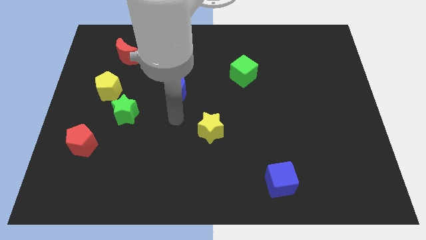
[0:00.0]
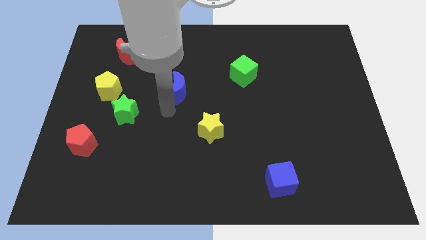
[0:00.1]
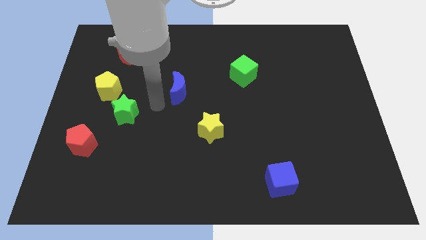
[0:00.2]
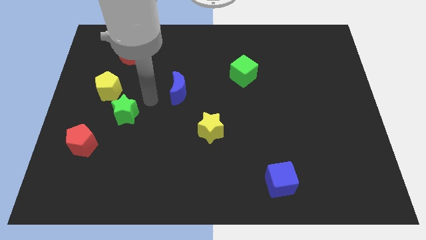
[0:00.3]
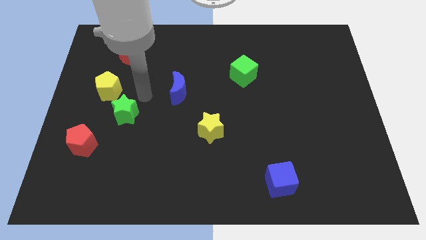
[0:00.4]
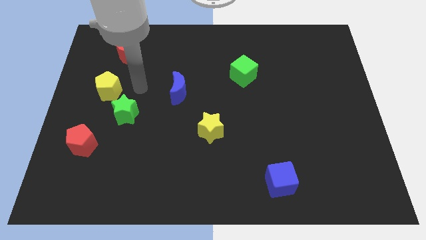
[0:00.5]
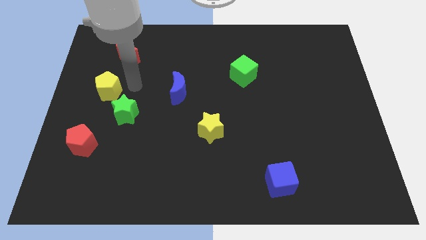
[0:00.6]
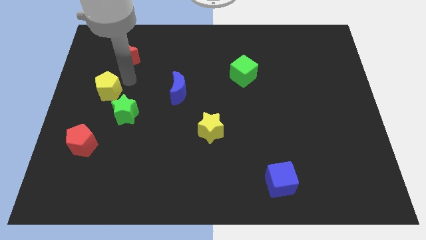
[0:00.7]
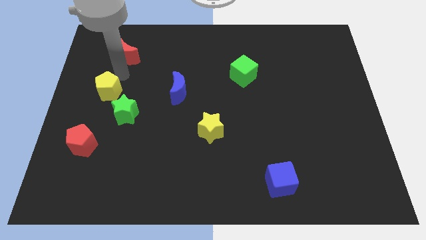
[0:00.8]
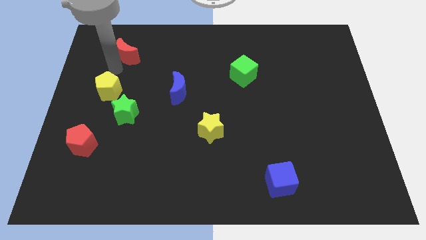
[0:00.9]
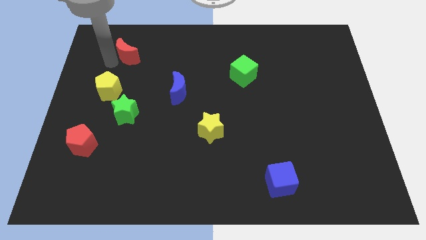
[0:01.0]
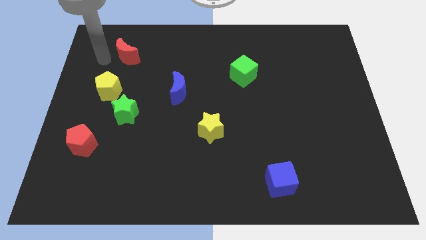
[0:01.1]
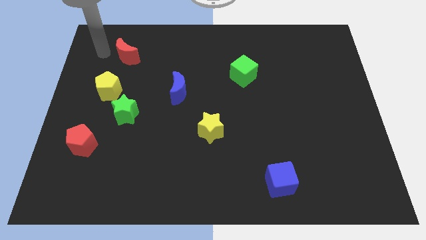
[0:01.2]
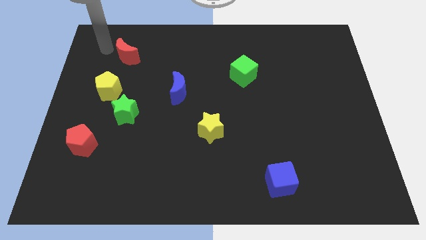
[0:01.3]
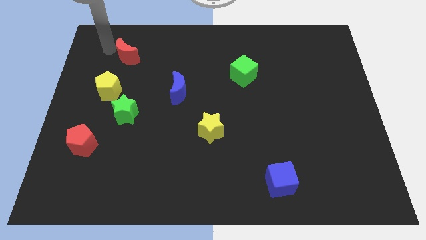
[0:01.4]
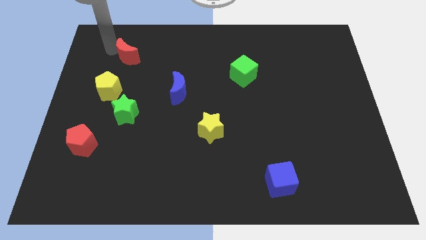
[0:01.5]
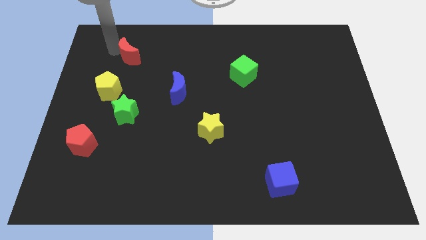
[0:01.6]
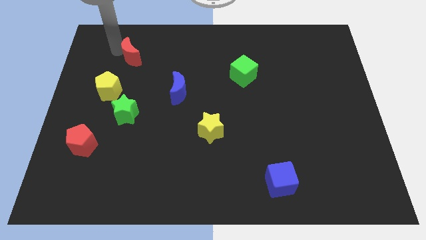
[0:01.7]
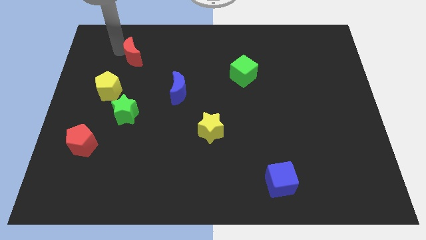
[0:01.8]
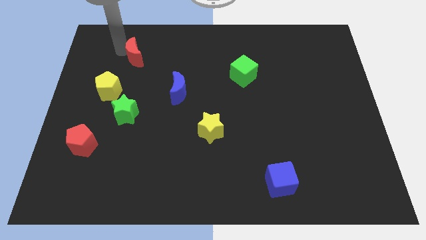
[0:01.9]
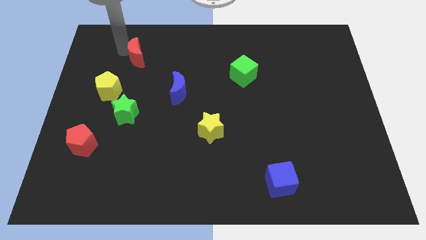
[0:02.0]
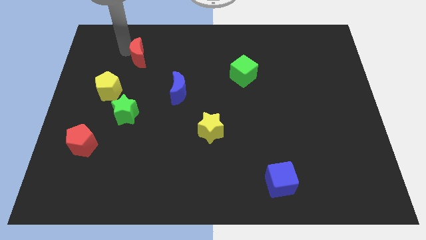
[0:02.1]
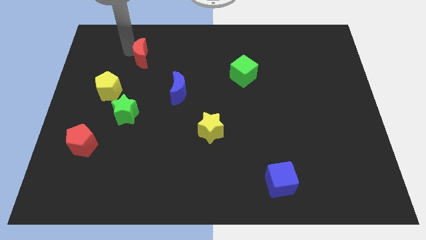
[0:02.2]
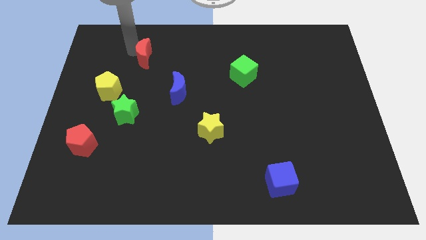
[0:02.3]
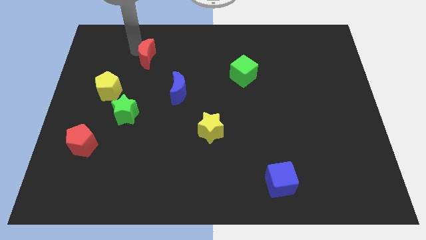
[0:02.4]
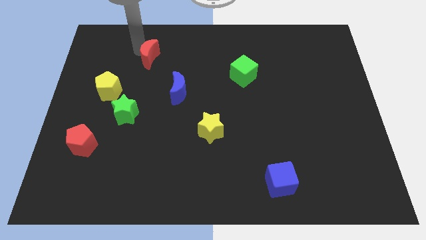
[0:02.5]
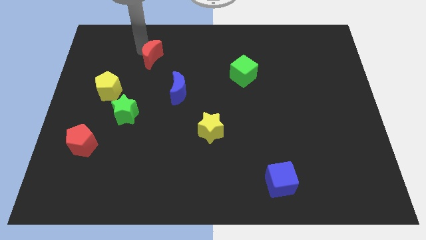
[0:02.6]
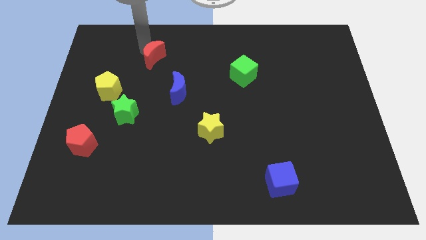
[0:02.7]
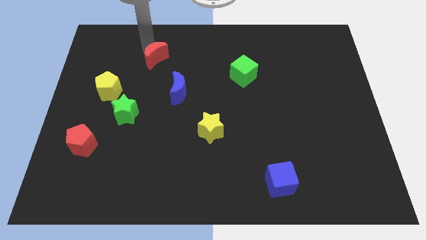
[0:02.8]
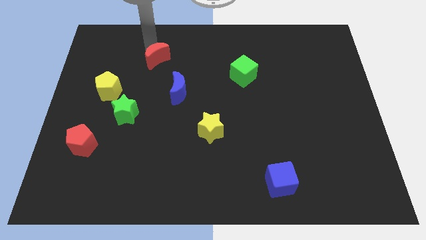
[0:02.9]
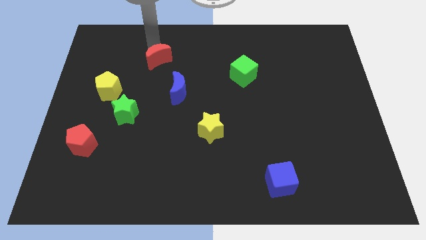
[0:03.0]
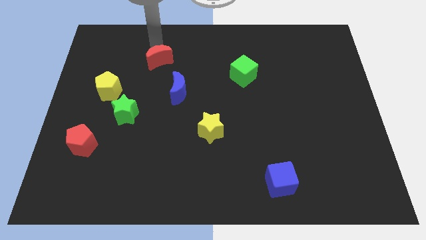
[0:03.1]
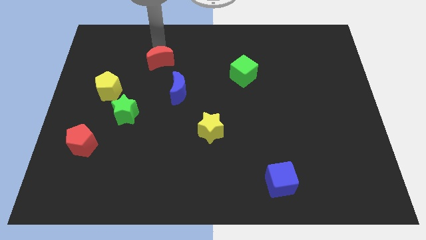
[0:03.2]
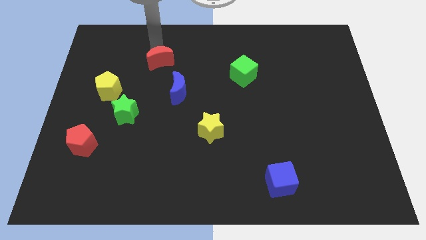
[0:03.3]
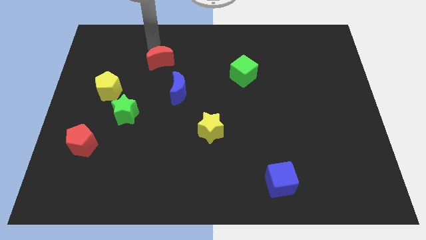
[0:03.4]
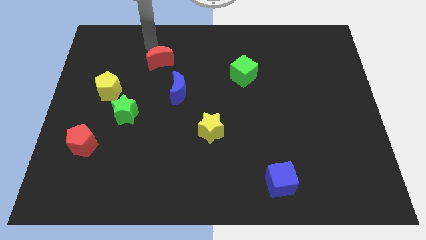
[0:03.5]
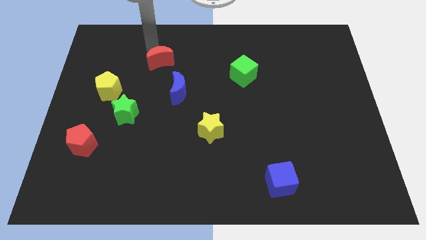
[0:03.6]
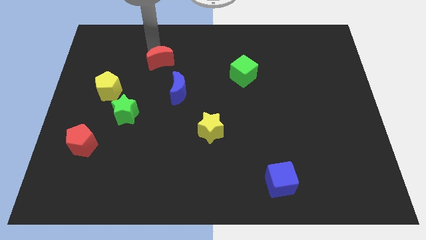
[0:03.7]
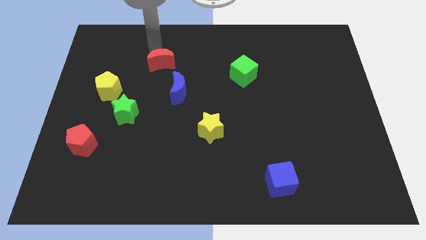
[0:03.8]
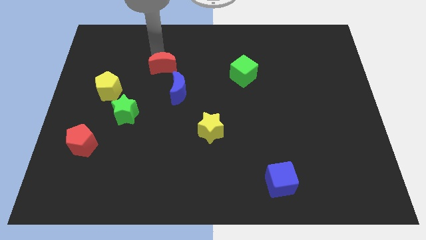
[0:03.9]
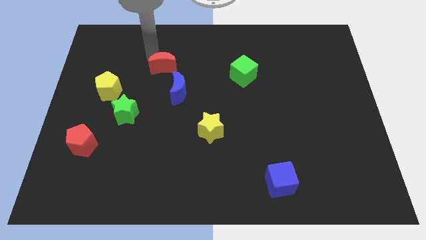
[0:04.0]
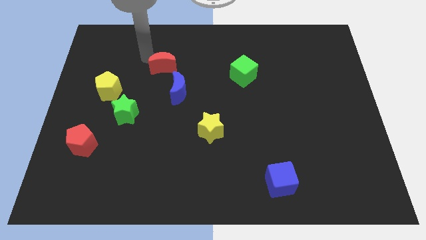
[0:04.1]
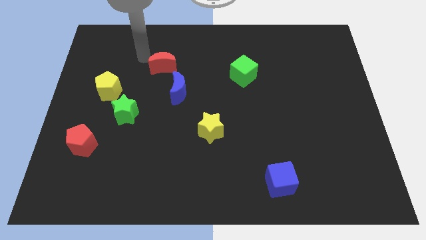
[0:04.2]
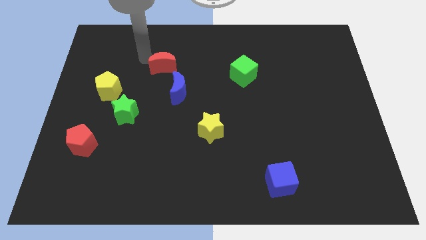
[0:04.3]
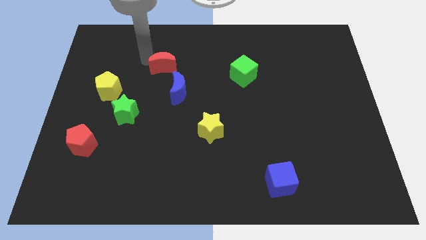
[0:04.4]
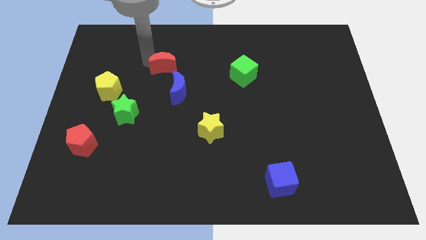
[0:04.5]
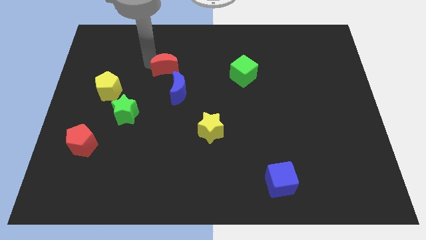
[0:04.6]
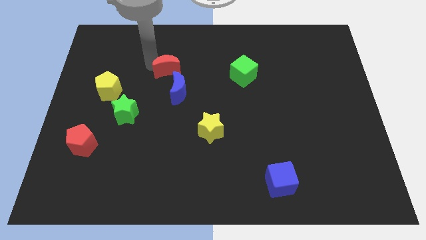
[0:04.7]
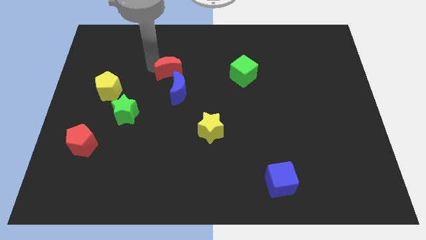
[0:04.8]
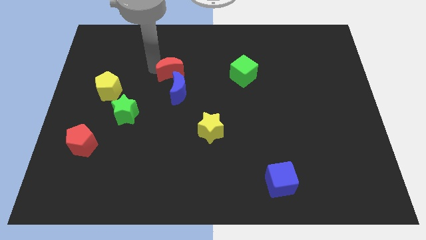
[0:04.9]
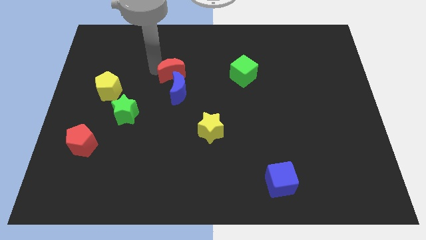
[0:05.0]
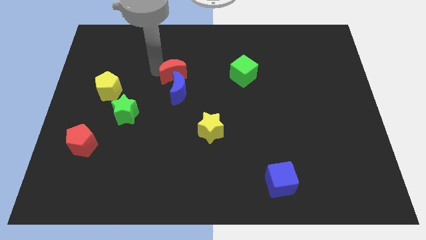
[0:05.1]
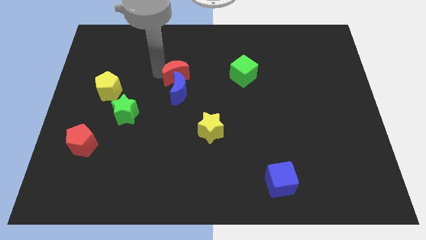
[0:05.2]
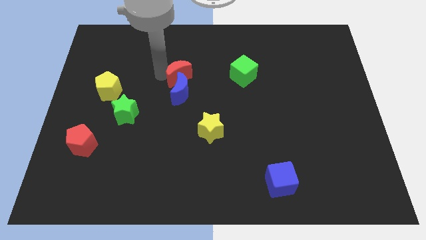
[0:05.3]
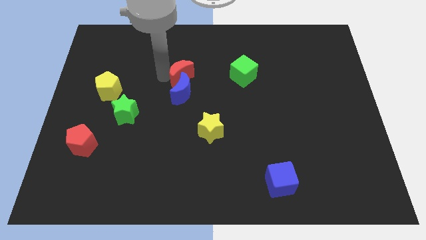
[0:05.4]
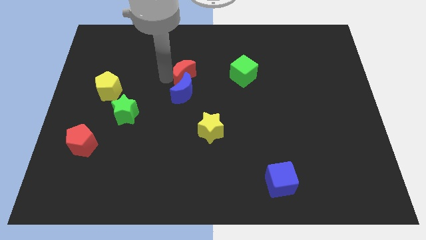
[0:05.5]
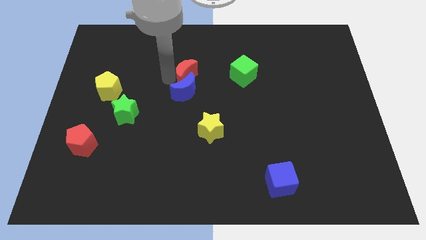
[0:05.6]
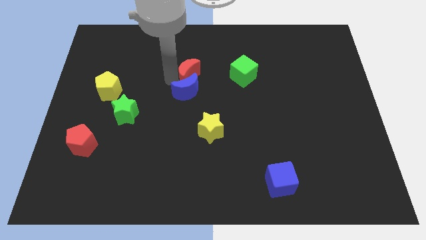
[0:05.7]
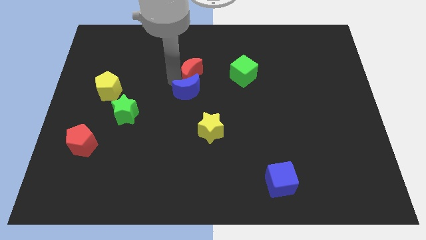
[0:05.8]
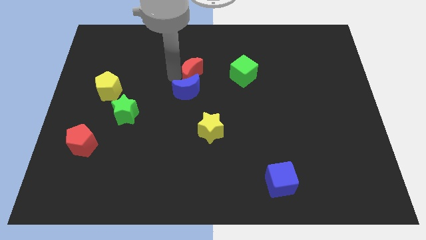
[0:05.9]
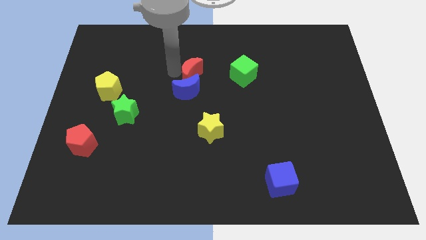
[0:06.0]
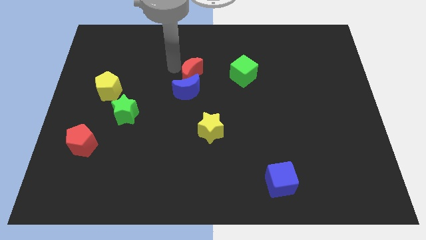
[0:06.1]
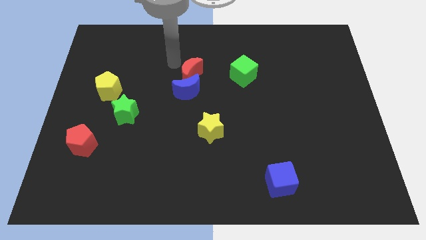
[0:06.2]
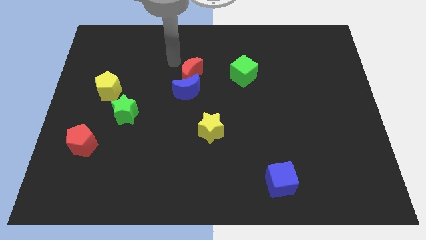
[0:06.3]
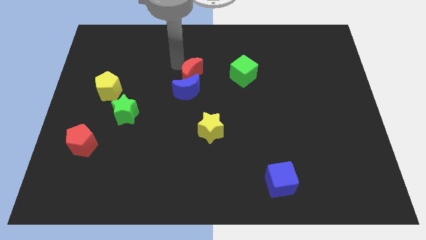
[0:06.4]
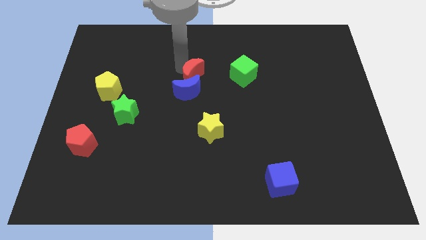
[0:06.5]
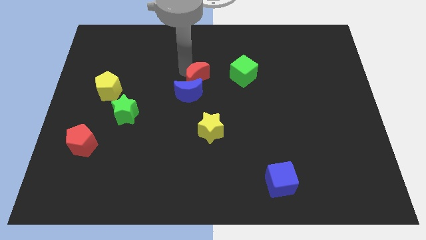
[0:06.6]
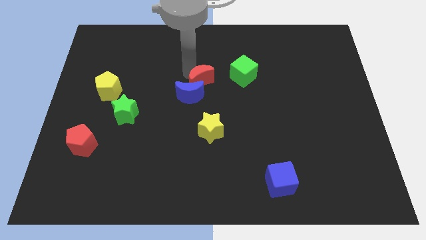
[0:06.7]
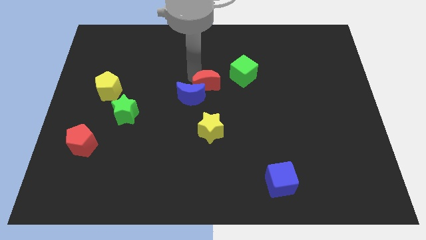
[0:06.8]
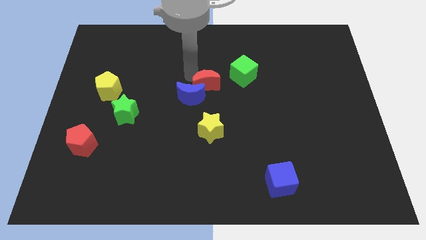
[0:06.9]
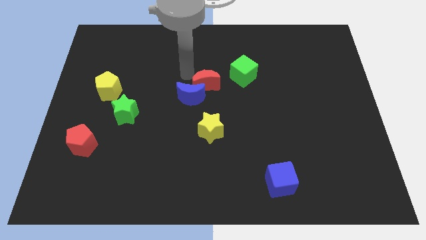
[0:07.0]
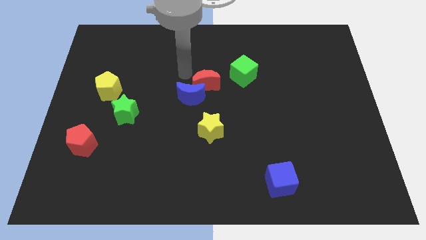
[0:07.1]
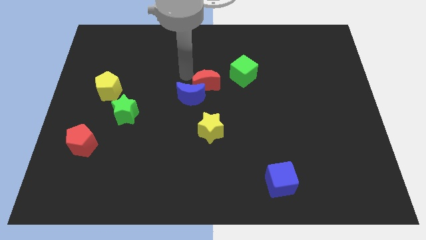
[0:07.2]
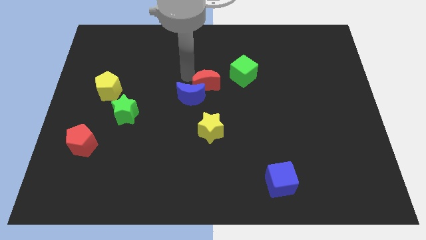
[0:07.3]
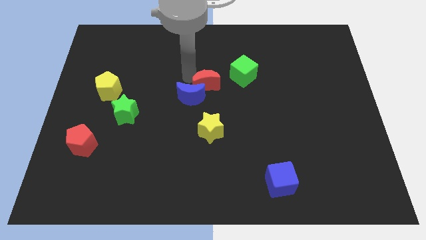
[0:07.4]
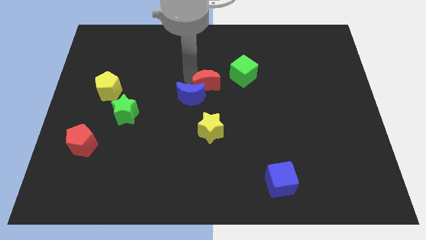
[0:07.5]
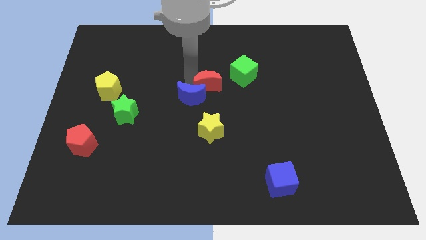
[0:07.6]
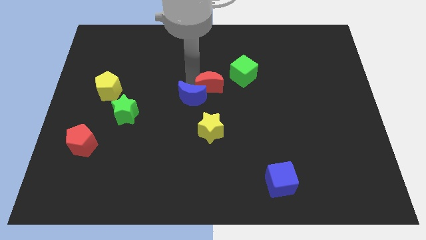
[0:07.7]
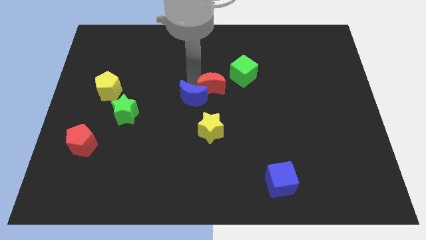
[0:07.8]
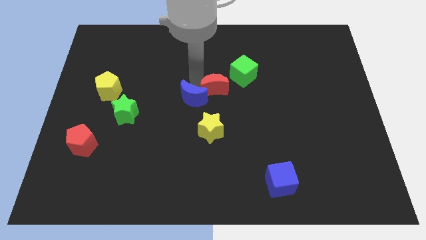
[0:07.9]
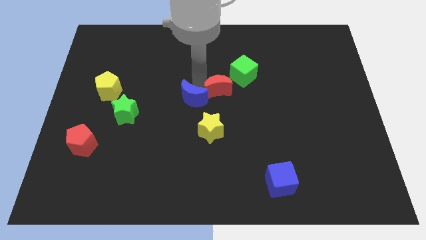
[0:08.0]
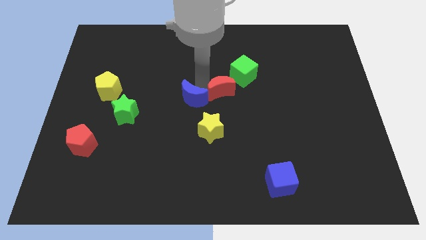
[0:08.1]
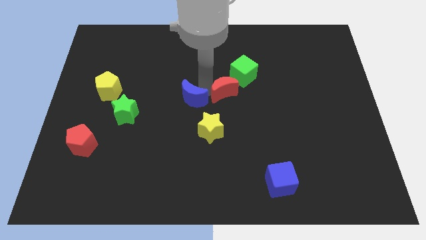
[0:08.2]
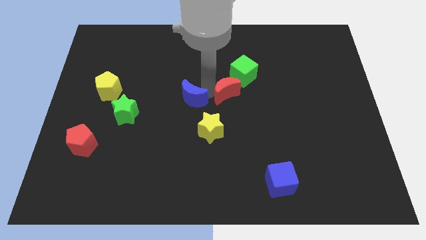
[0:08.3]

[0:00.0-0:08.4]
move the red moon to the bottom of the green cube
